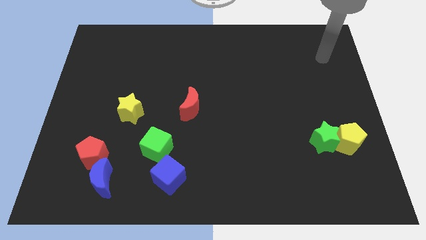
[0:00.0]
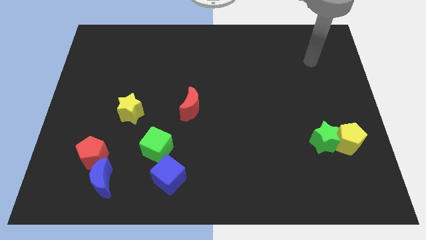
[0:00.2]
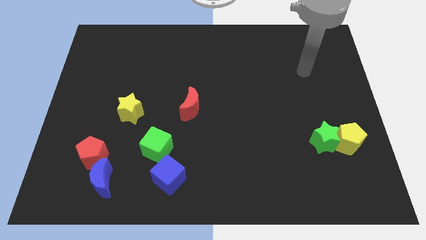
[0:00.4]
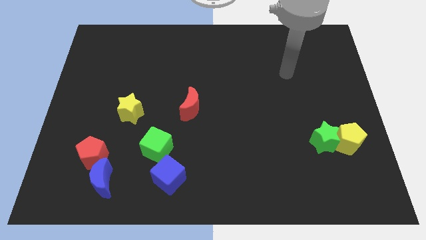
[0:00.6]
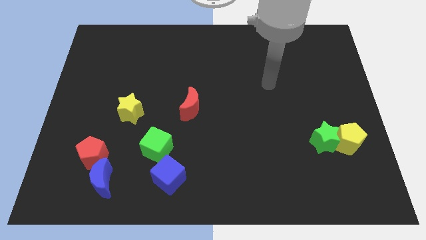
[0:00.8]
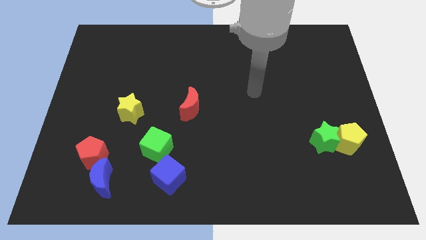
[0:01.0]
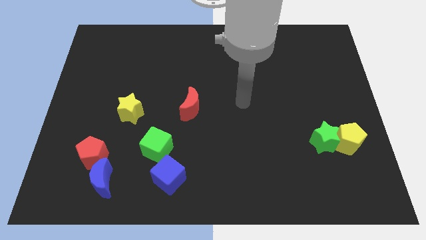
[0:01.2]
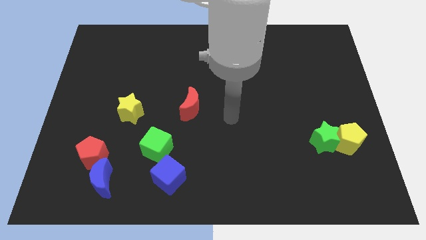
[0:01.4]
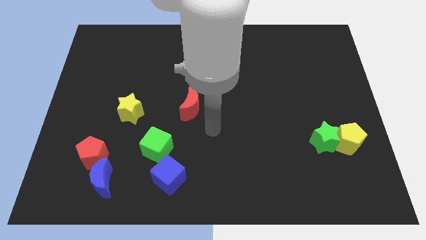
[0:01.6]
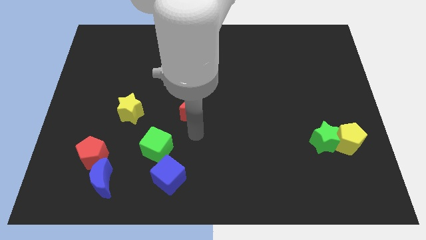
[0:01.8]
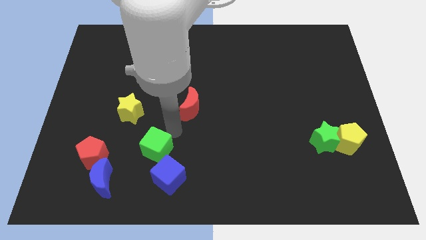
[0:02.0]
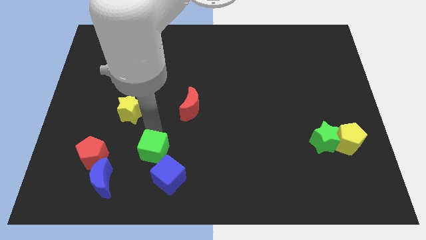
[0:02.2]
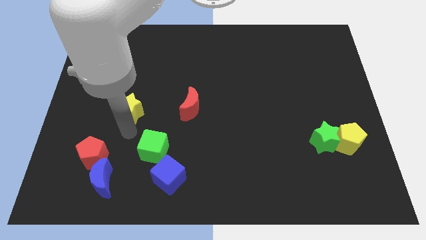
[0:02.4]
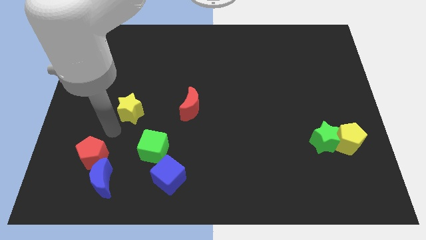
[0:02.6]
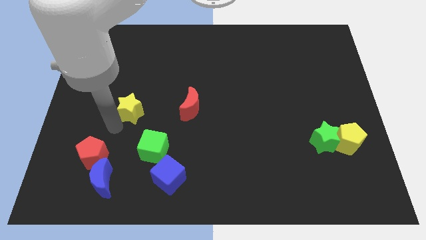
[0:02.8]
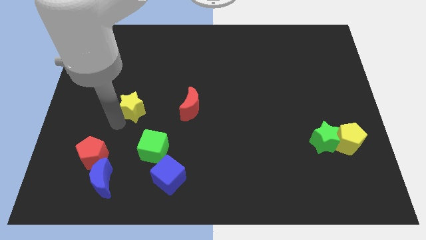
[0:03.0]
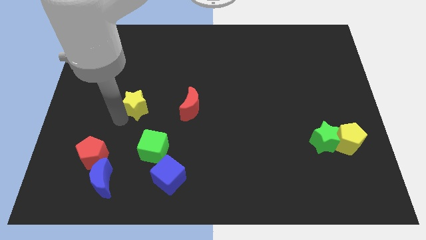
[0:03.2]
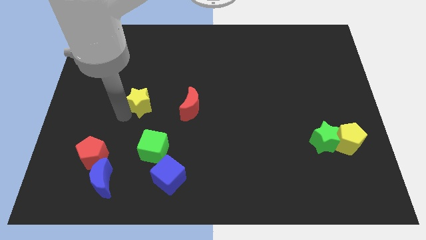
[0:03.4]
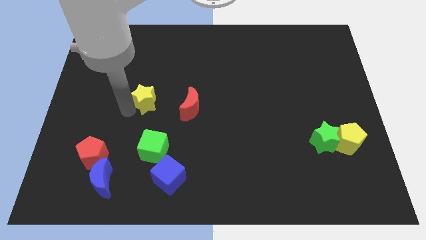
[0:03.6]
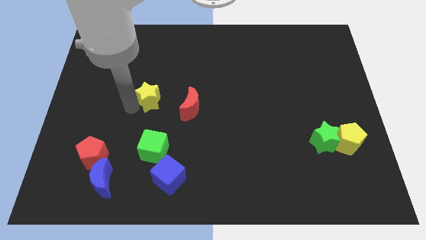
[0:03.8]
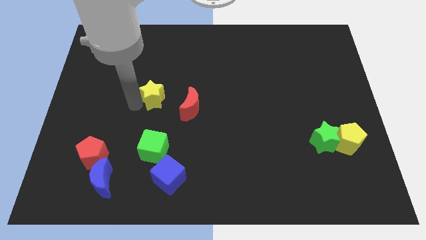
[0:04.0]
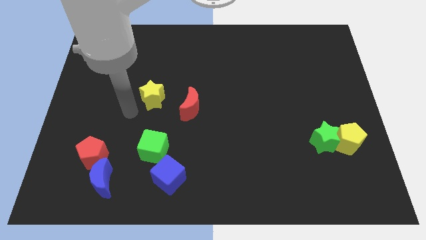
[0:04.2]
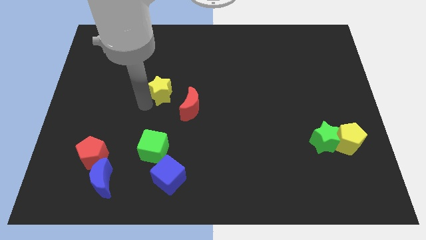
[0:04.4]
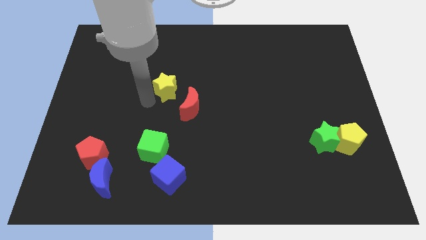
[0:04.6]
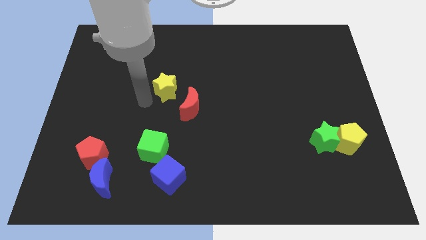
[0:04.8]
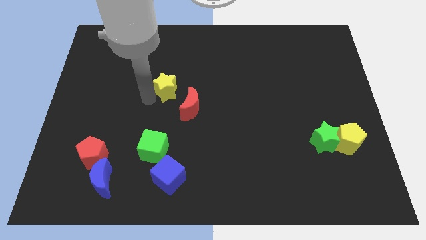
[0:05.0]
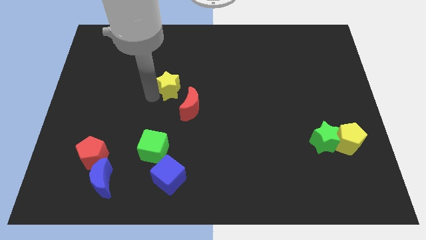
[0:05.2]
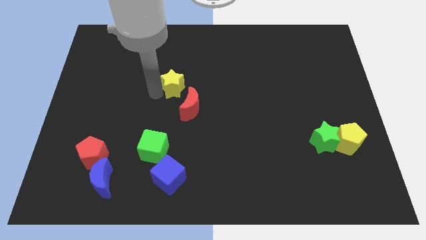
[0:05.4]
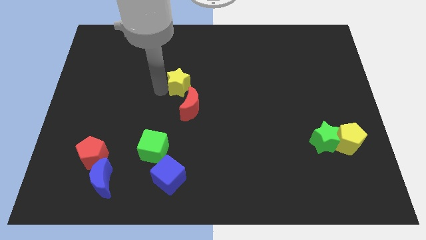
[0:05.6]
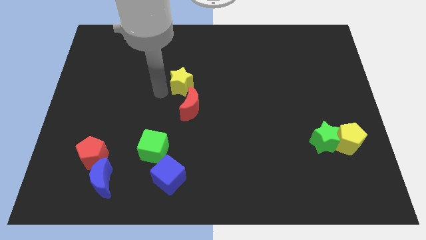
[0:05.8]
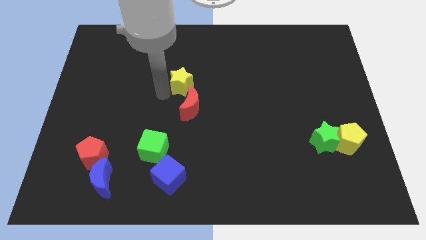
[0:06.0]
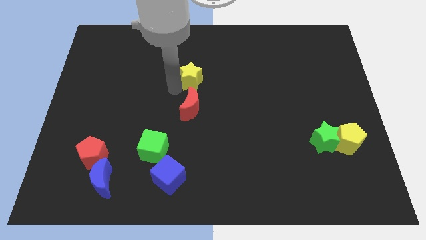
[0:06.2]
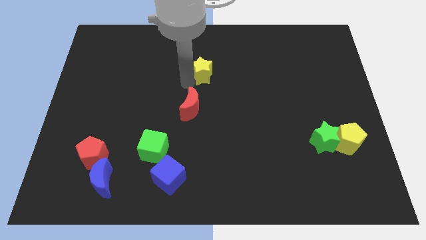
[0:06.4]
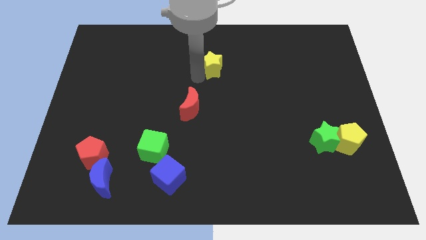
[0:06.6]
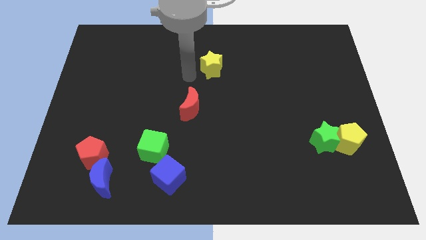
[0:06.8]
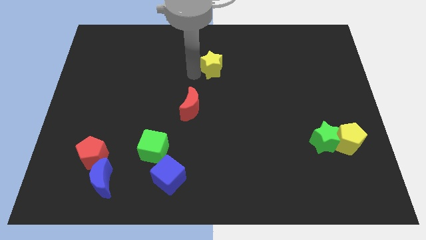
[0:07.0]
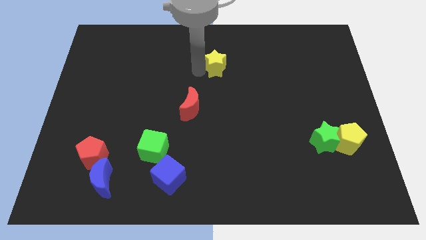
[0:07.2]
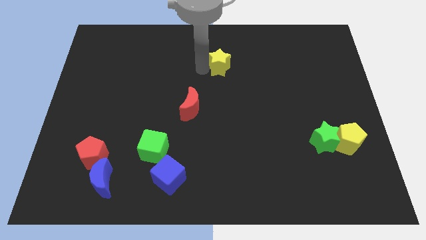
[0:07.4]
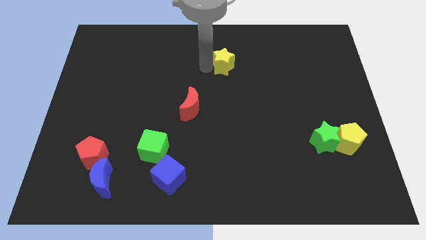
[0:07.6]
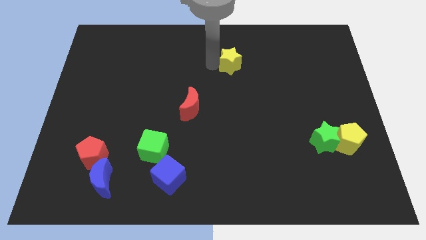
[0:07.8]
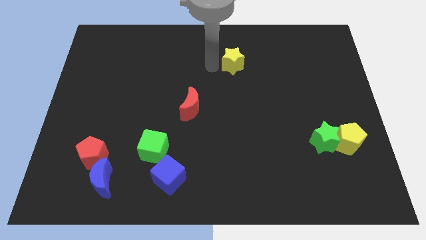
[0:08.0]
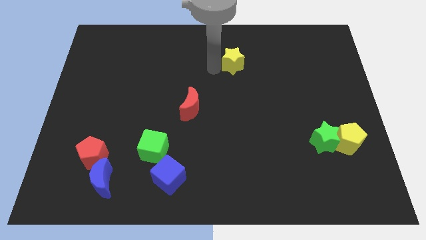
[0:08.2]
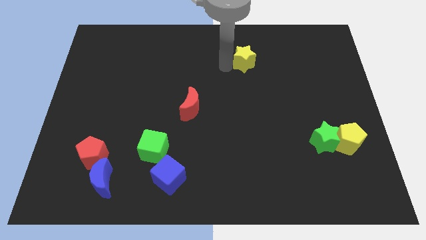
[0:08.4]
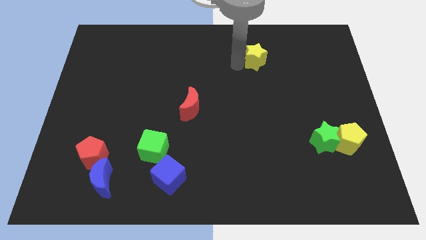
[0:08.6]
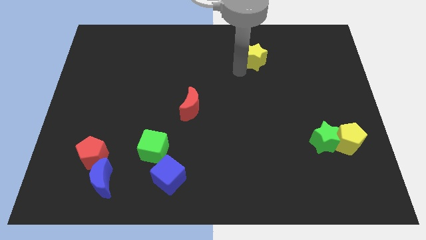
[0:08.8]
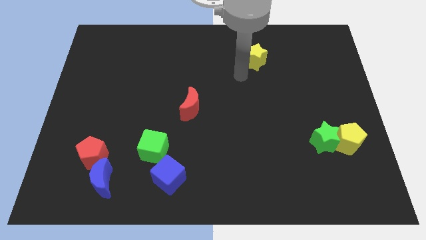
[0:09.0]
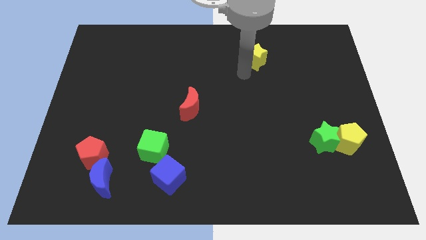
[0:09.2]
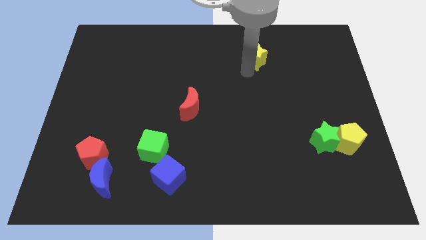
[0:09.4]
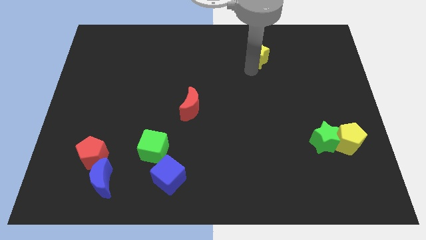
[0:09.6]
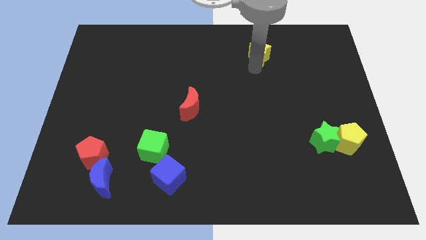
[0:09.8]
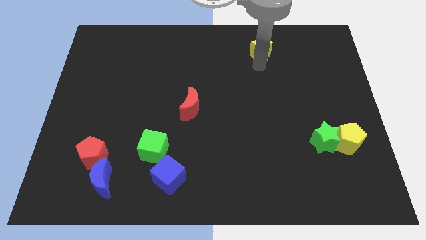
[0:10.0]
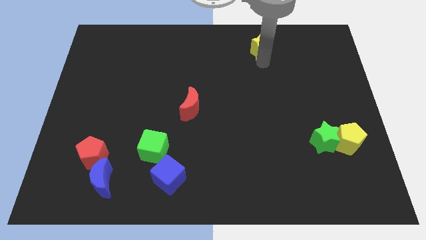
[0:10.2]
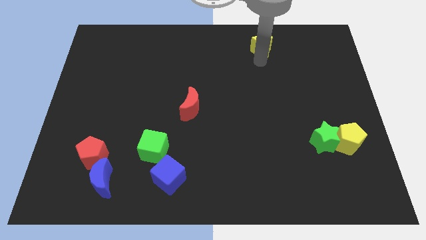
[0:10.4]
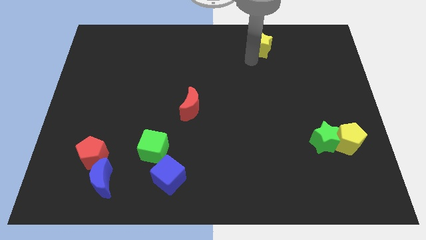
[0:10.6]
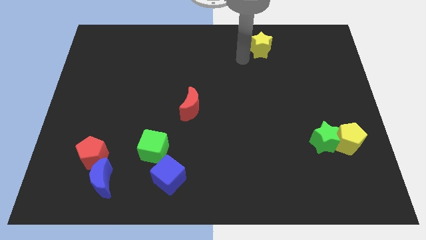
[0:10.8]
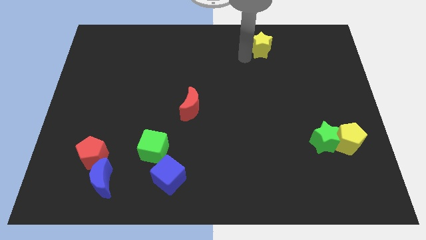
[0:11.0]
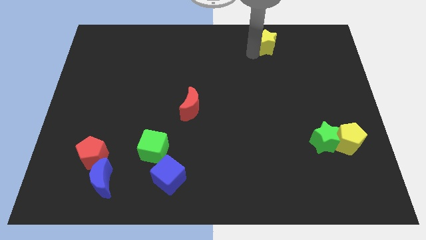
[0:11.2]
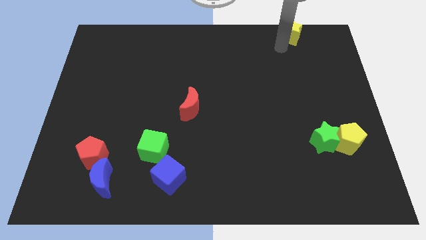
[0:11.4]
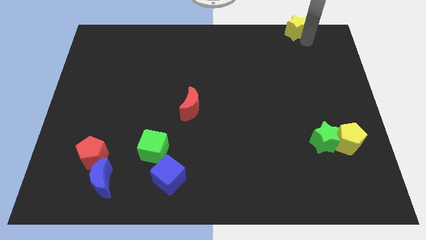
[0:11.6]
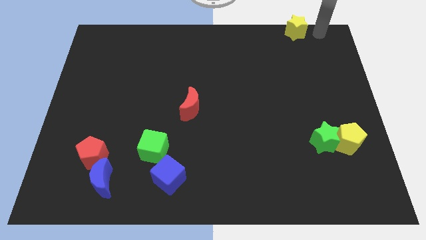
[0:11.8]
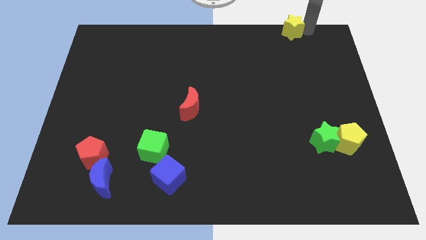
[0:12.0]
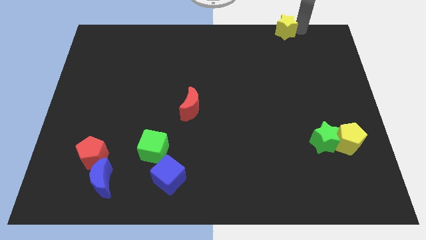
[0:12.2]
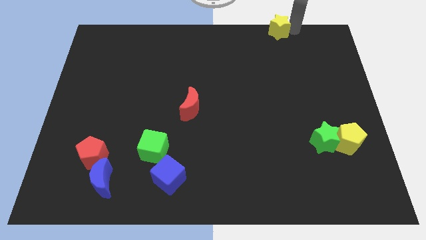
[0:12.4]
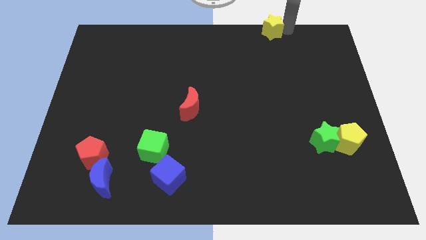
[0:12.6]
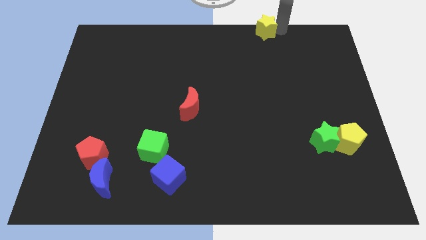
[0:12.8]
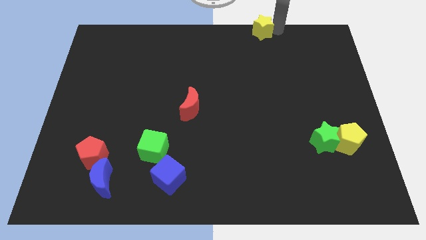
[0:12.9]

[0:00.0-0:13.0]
put the yellow star to the towards your base

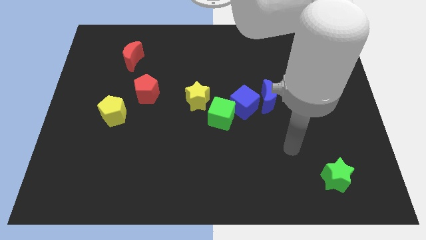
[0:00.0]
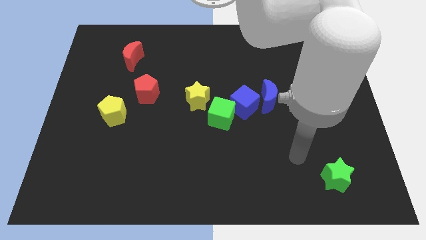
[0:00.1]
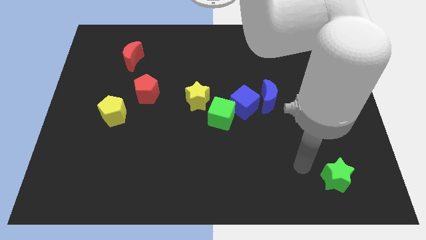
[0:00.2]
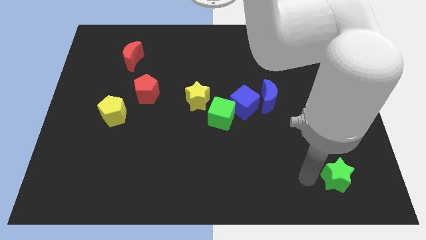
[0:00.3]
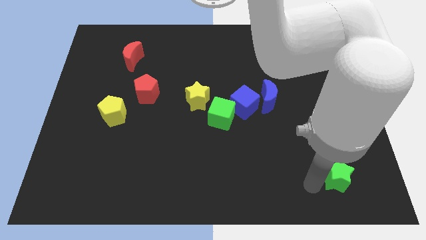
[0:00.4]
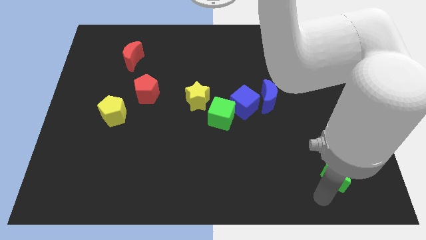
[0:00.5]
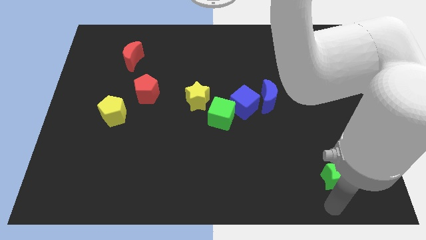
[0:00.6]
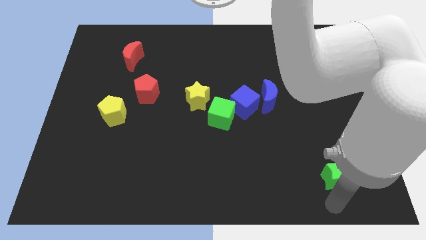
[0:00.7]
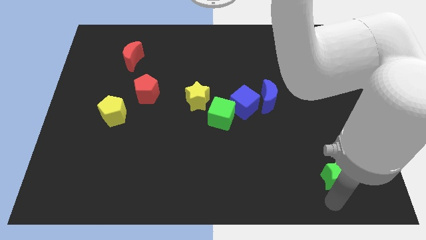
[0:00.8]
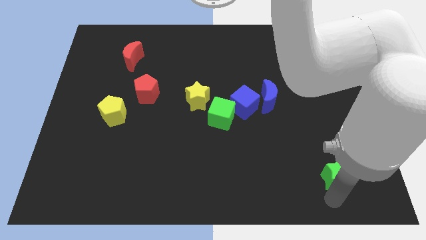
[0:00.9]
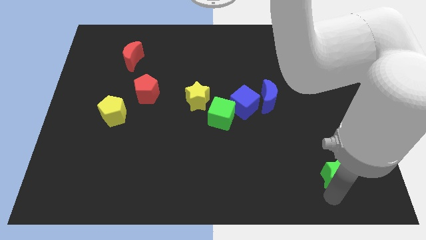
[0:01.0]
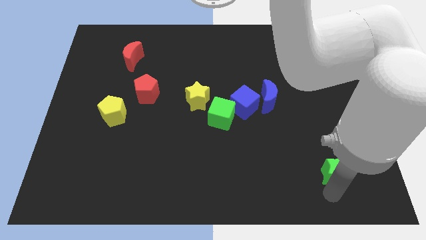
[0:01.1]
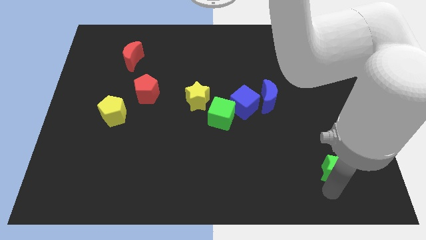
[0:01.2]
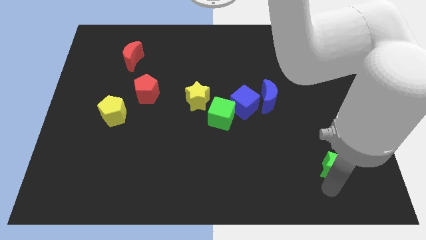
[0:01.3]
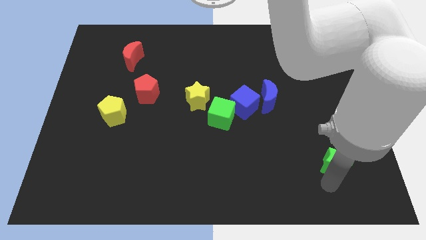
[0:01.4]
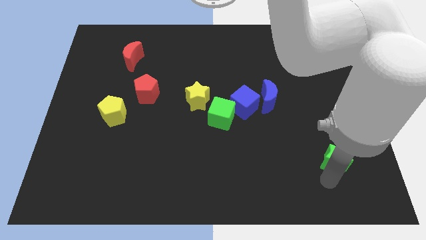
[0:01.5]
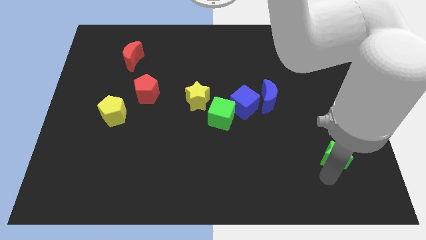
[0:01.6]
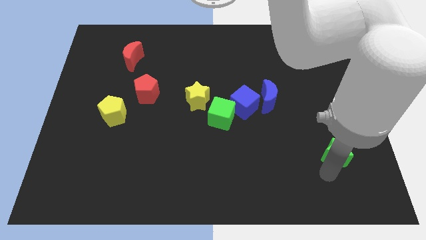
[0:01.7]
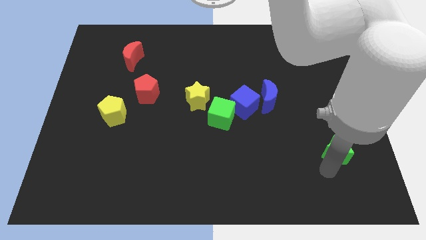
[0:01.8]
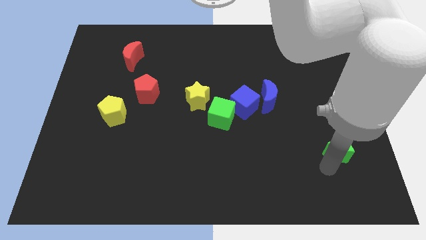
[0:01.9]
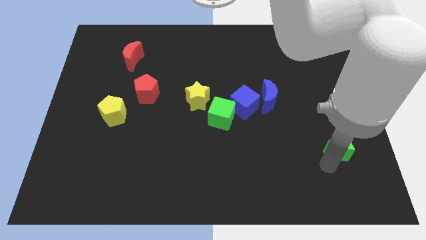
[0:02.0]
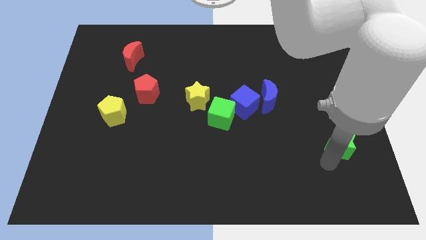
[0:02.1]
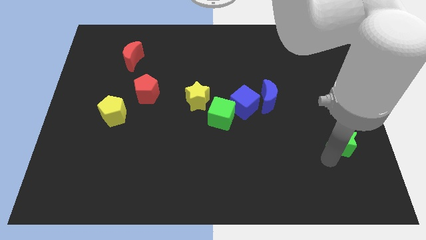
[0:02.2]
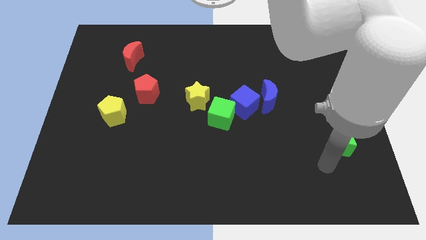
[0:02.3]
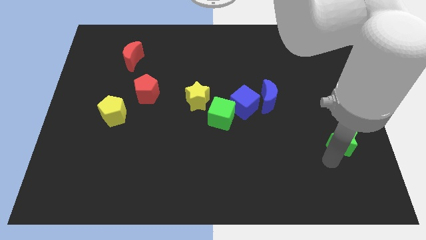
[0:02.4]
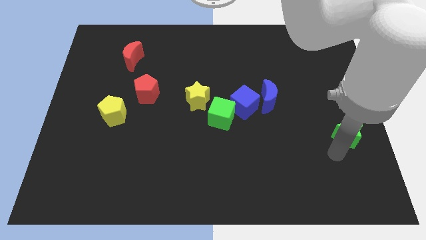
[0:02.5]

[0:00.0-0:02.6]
slide the green star to the right side
